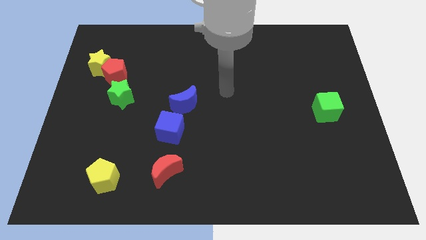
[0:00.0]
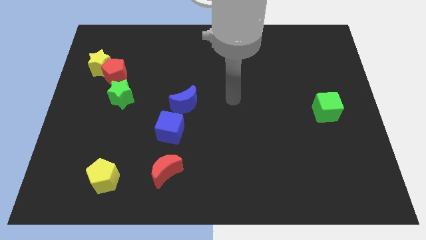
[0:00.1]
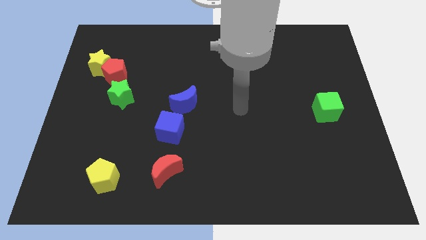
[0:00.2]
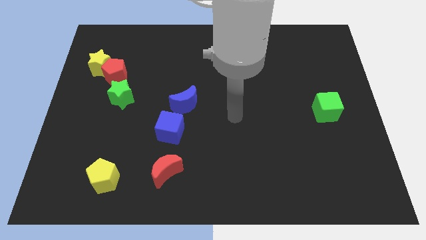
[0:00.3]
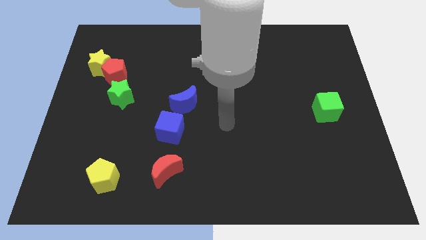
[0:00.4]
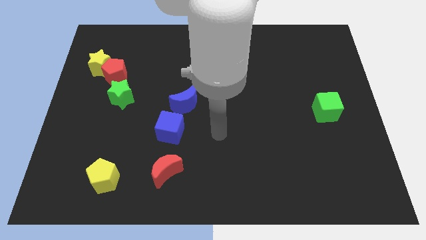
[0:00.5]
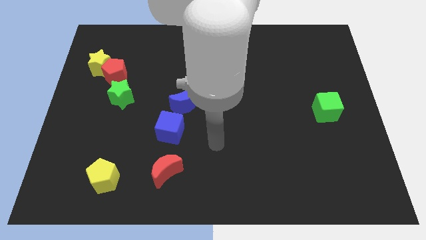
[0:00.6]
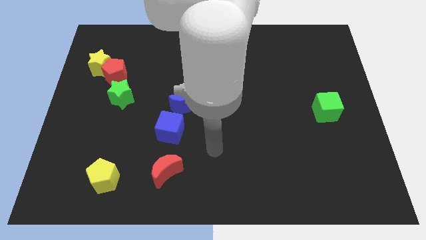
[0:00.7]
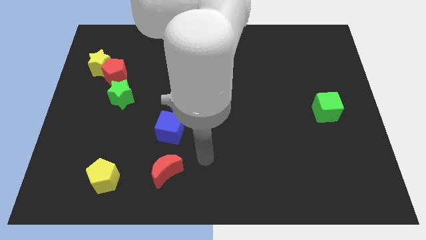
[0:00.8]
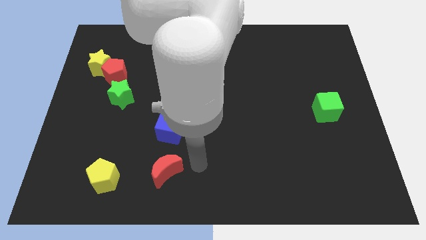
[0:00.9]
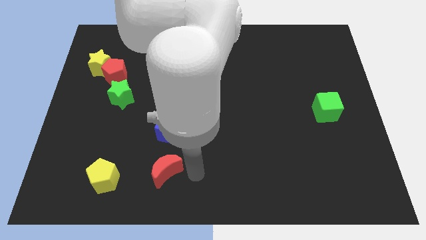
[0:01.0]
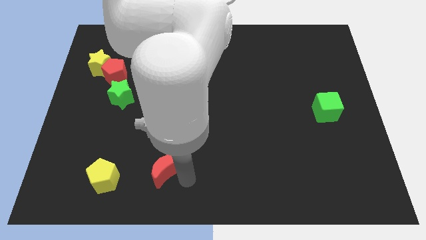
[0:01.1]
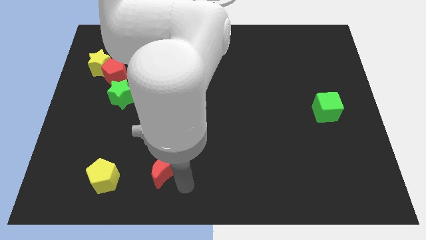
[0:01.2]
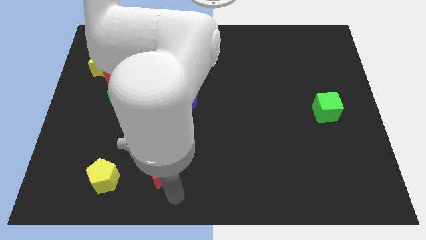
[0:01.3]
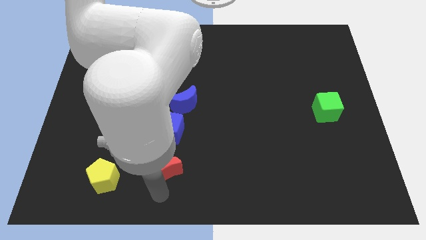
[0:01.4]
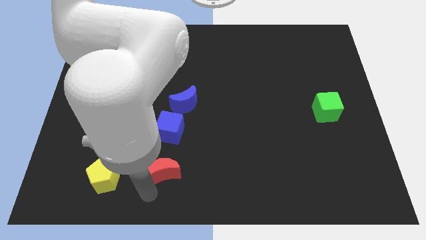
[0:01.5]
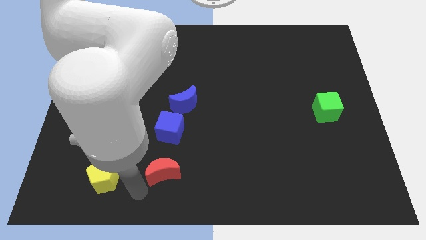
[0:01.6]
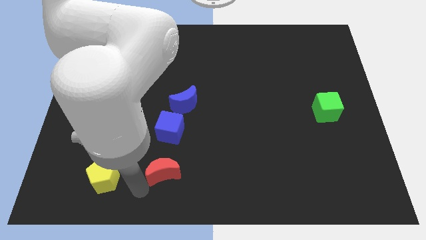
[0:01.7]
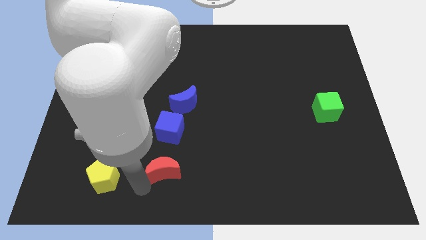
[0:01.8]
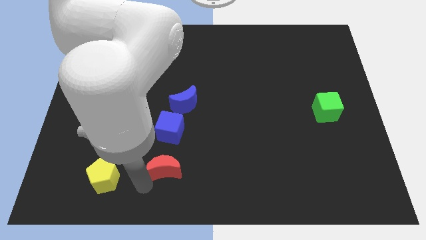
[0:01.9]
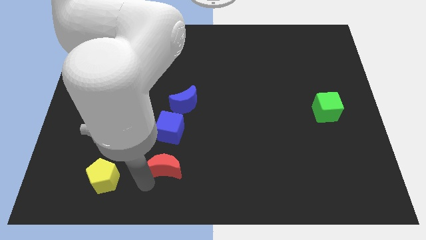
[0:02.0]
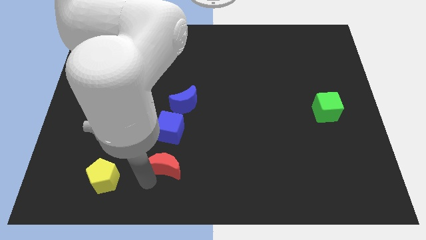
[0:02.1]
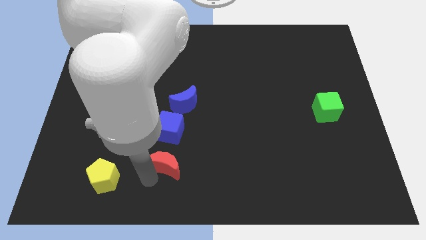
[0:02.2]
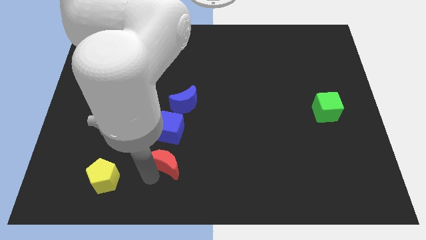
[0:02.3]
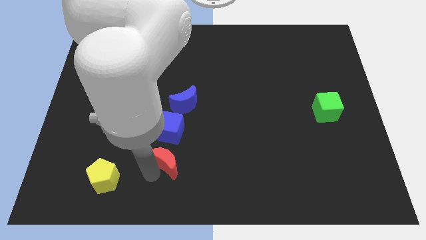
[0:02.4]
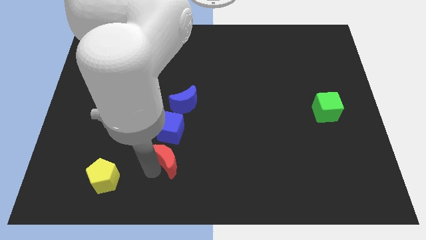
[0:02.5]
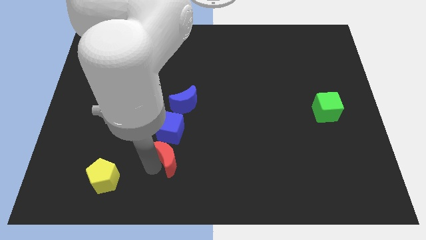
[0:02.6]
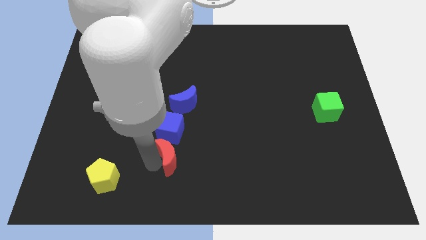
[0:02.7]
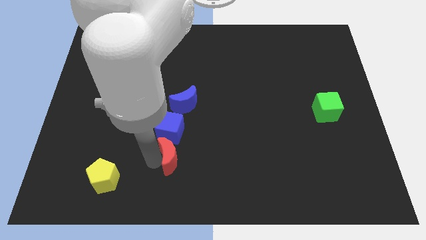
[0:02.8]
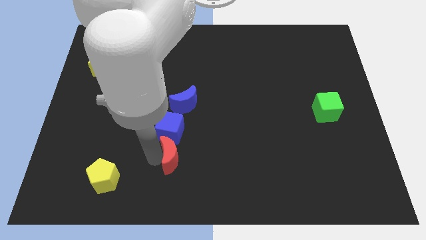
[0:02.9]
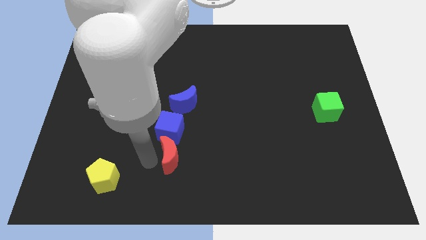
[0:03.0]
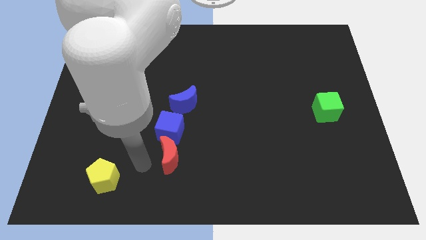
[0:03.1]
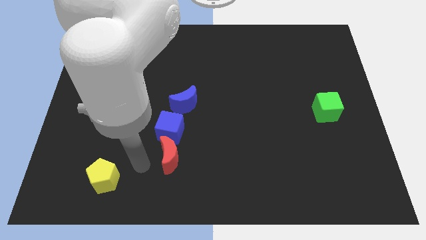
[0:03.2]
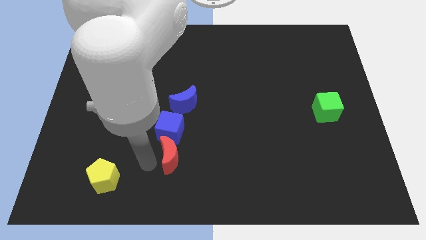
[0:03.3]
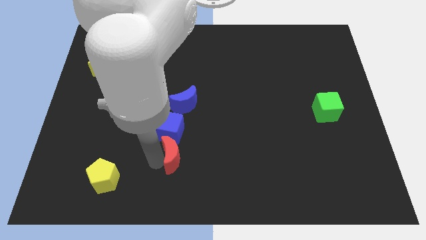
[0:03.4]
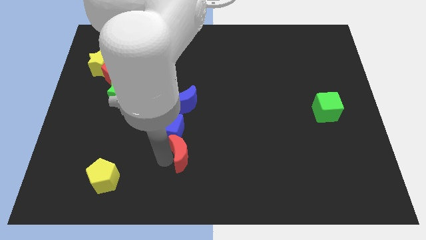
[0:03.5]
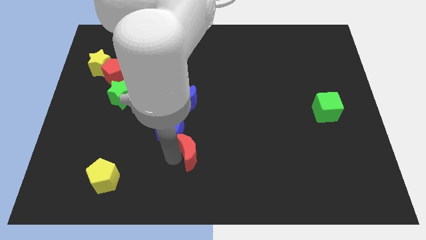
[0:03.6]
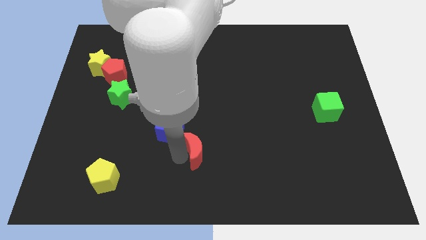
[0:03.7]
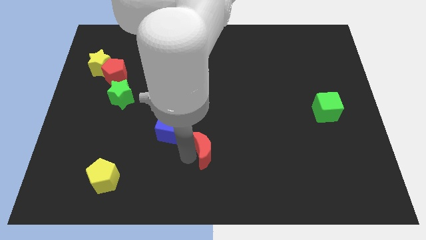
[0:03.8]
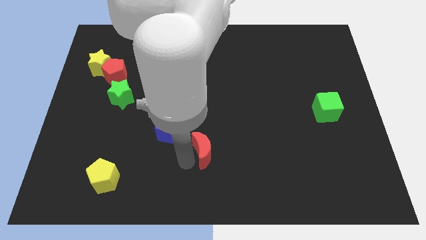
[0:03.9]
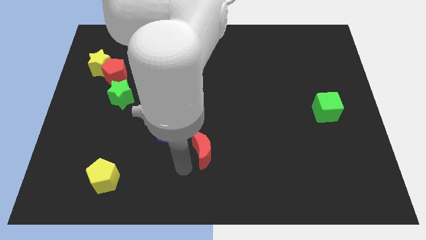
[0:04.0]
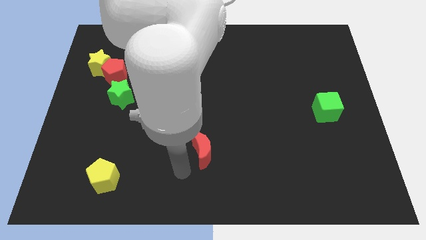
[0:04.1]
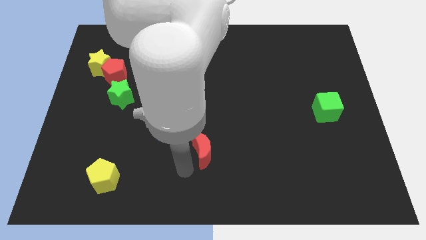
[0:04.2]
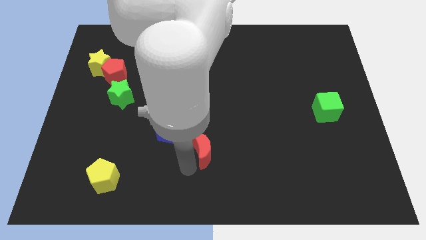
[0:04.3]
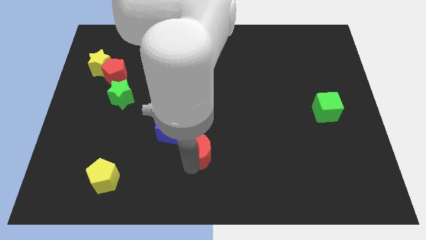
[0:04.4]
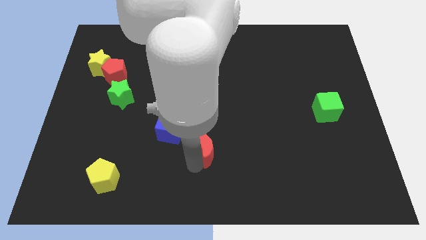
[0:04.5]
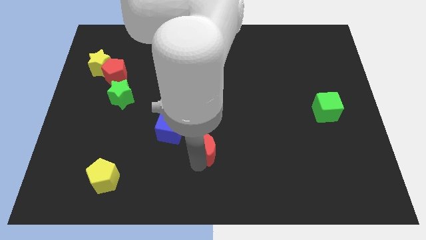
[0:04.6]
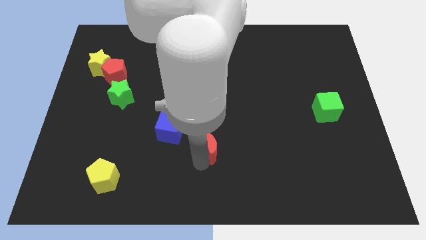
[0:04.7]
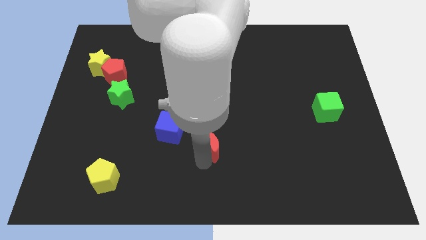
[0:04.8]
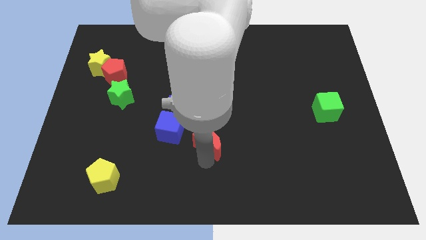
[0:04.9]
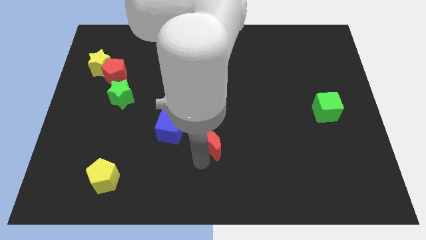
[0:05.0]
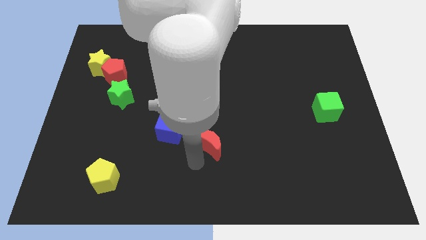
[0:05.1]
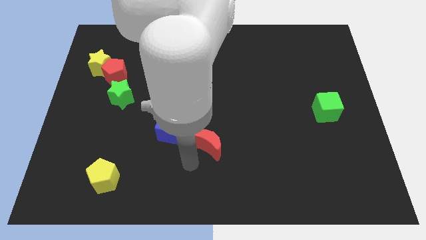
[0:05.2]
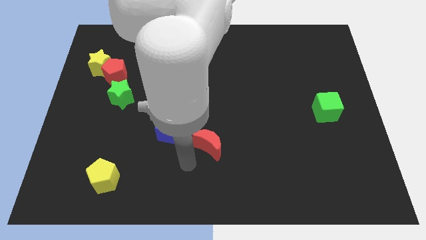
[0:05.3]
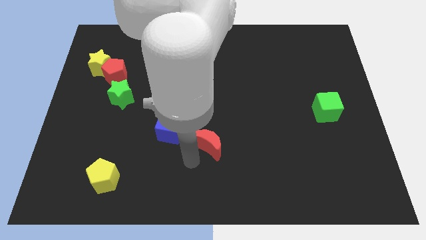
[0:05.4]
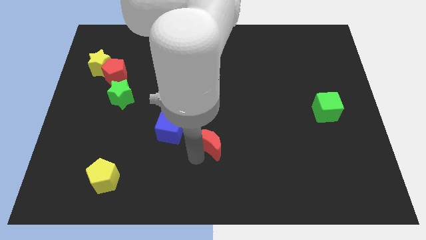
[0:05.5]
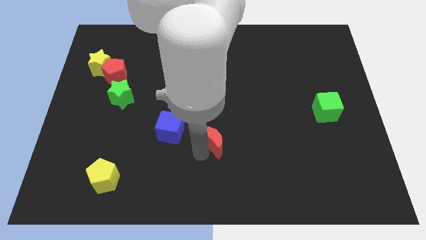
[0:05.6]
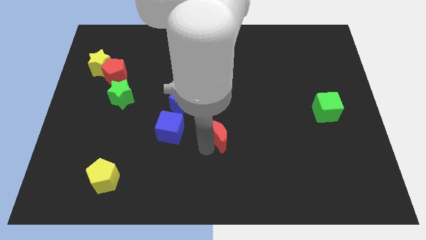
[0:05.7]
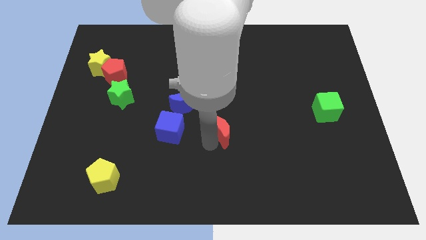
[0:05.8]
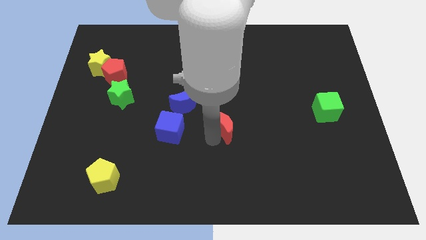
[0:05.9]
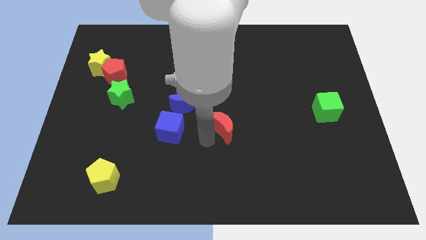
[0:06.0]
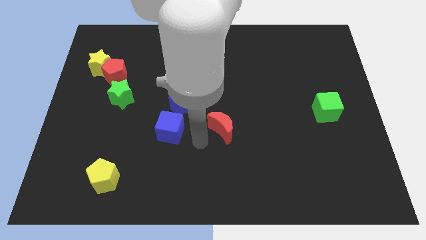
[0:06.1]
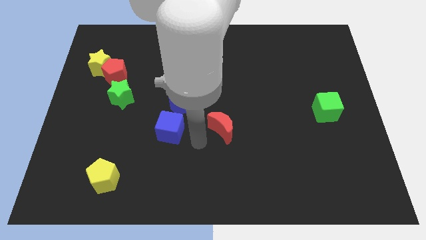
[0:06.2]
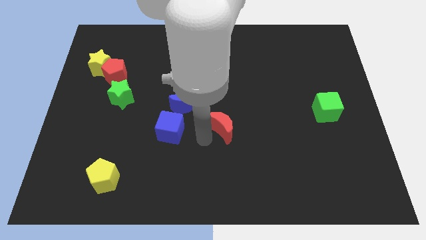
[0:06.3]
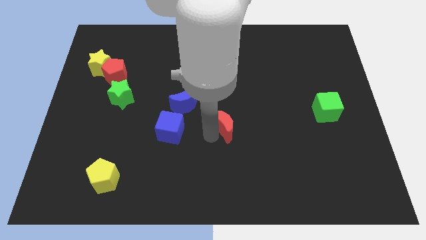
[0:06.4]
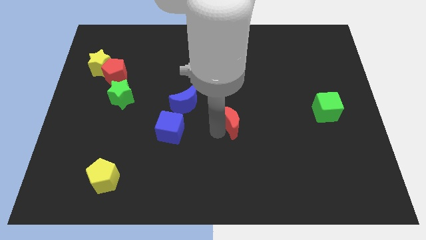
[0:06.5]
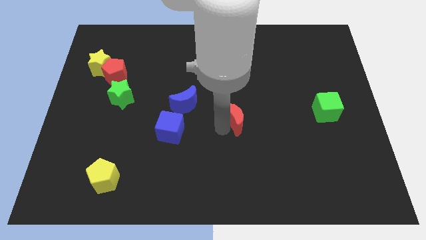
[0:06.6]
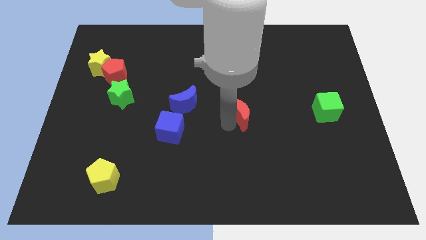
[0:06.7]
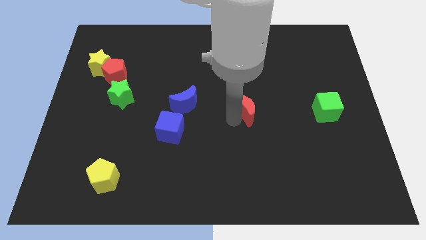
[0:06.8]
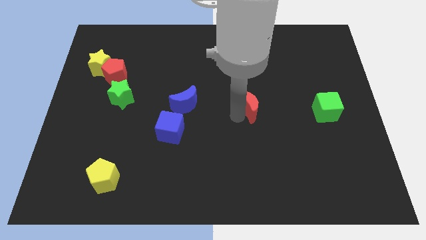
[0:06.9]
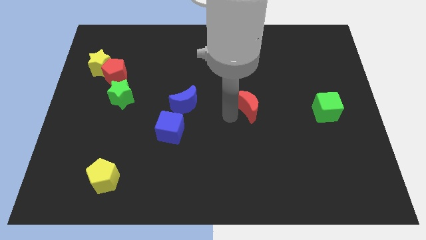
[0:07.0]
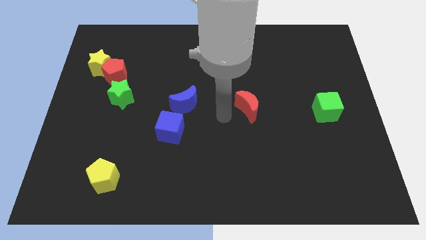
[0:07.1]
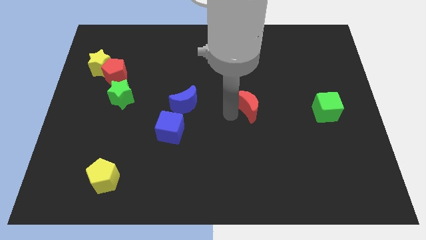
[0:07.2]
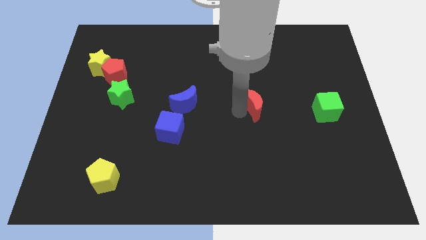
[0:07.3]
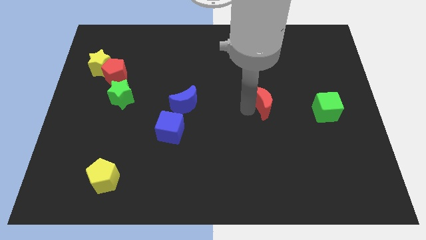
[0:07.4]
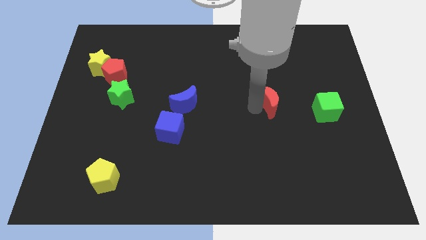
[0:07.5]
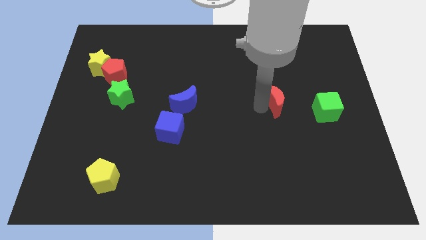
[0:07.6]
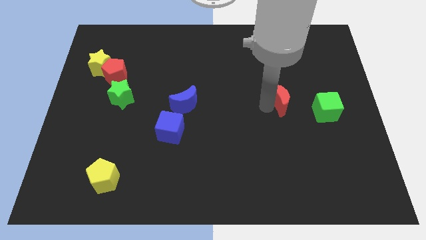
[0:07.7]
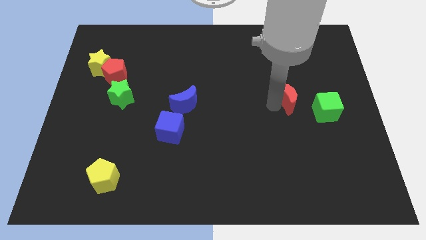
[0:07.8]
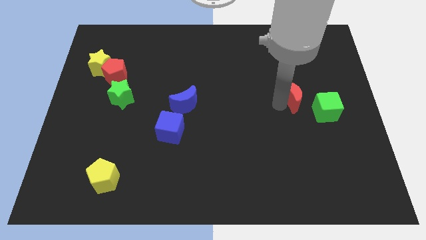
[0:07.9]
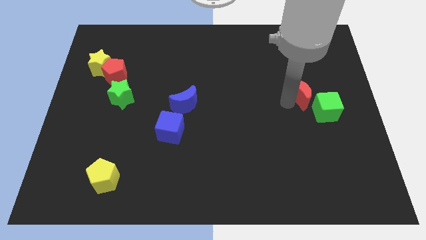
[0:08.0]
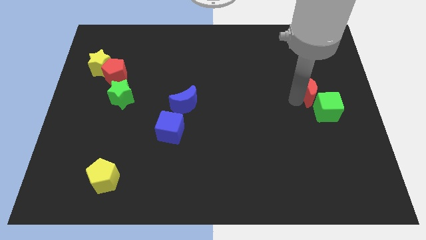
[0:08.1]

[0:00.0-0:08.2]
move the red moon to the top side of the green cube
